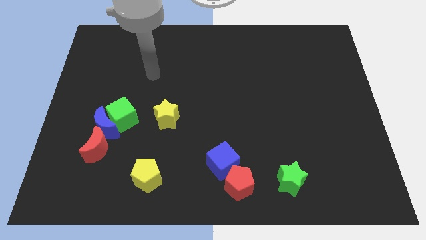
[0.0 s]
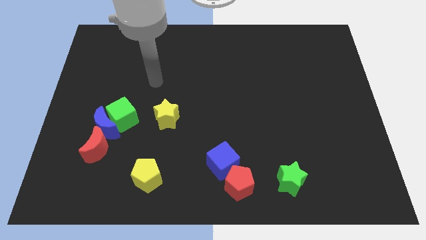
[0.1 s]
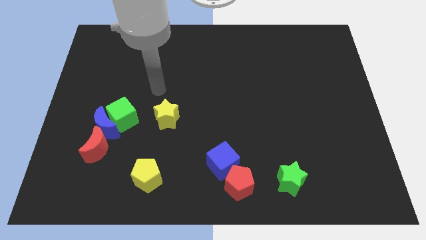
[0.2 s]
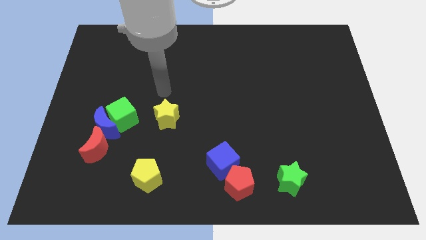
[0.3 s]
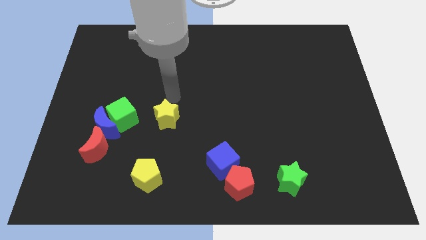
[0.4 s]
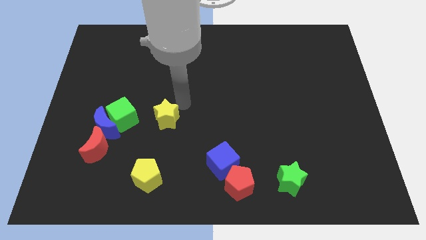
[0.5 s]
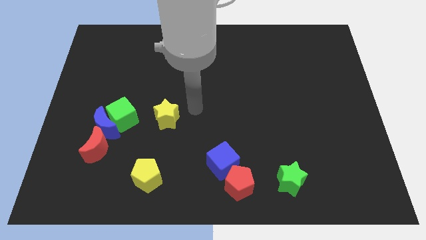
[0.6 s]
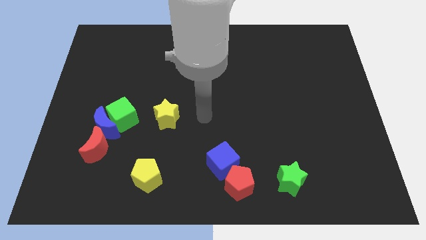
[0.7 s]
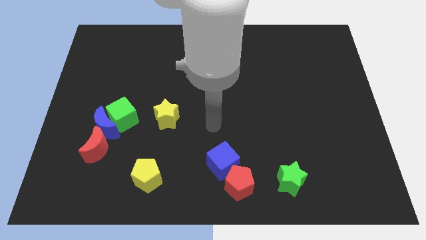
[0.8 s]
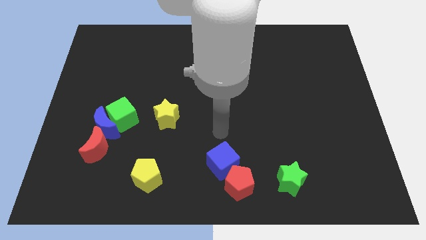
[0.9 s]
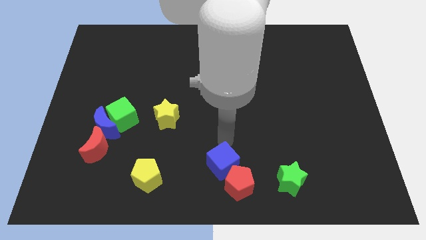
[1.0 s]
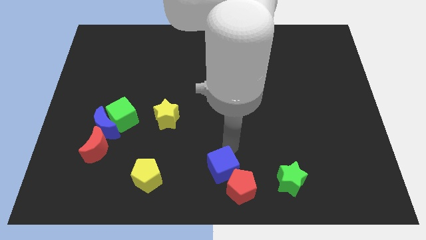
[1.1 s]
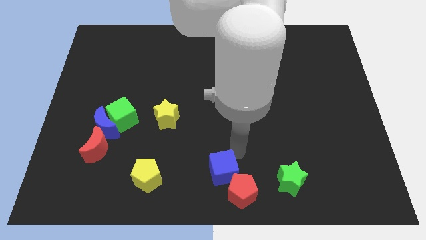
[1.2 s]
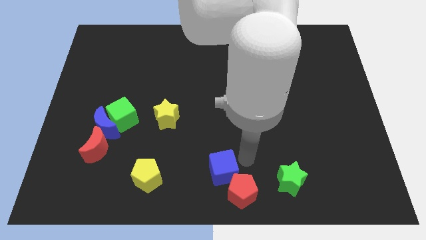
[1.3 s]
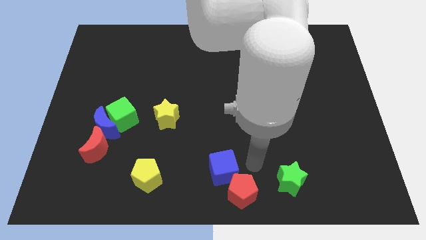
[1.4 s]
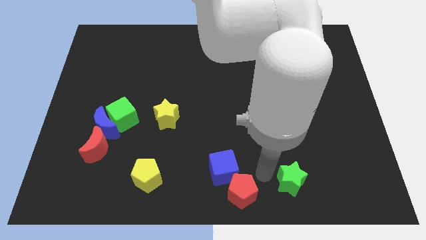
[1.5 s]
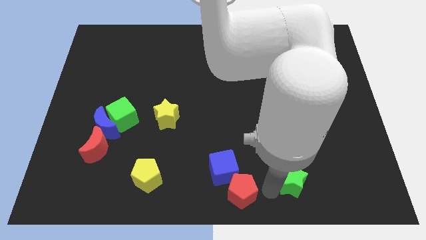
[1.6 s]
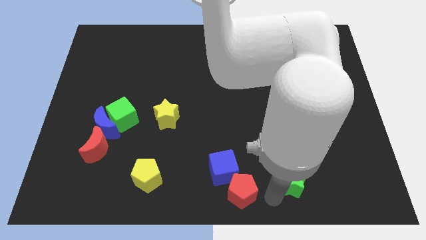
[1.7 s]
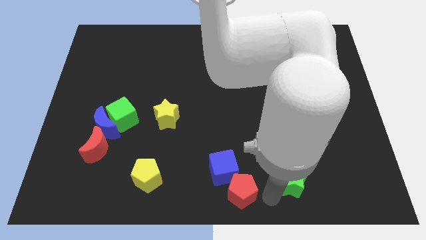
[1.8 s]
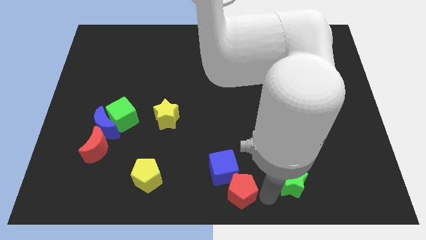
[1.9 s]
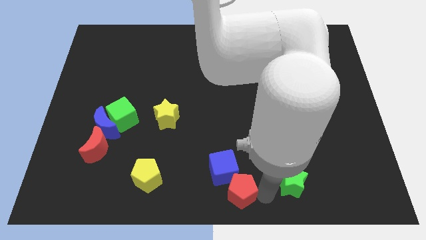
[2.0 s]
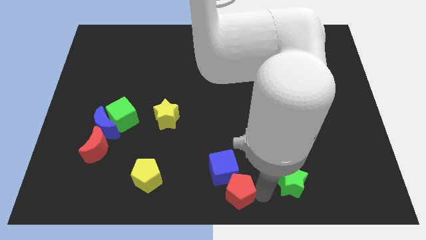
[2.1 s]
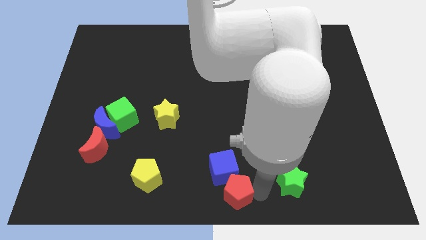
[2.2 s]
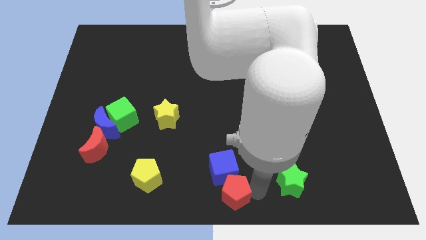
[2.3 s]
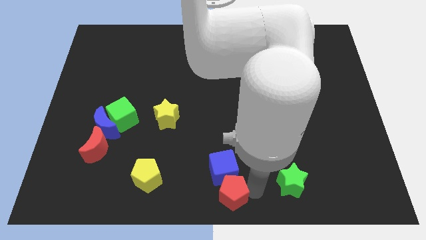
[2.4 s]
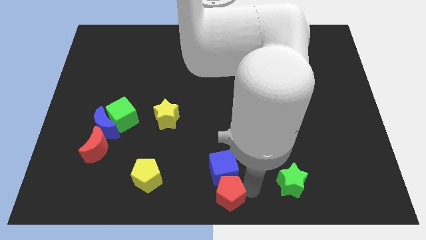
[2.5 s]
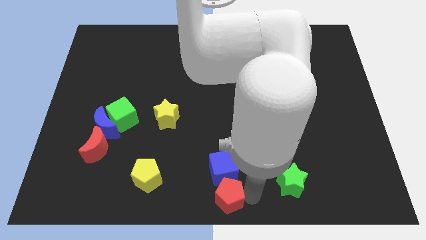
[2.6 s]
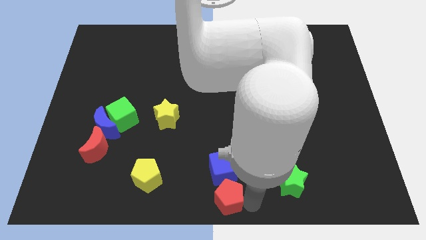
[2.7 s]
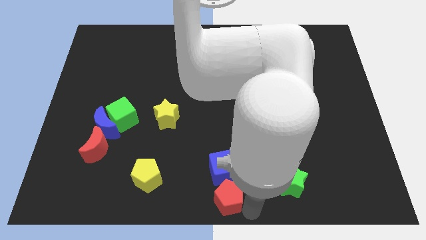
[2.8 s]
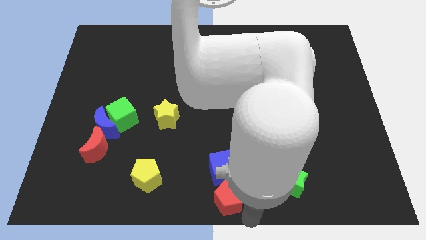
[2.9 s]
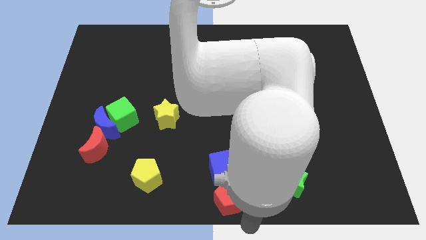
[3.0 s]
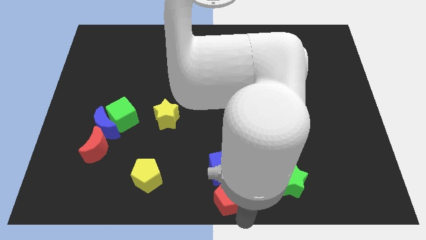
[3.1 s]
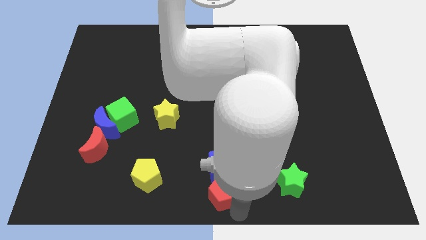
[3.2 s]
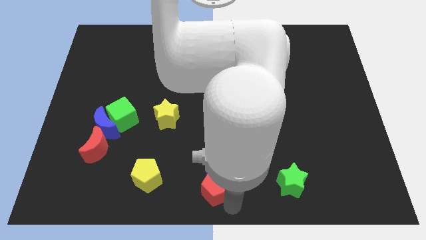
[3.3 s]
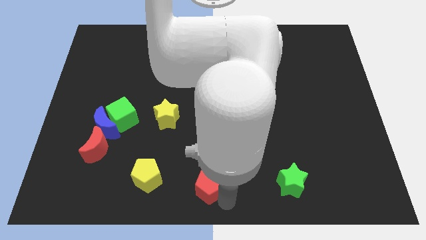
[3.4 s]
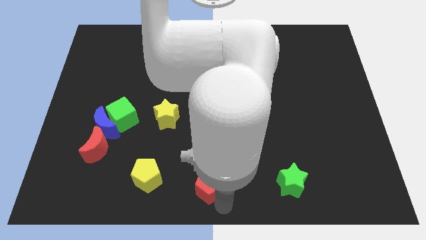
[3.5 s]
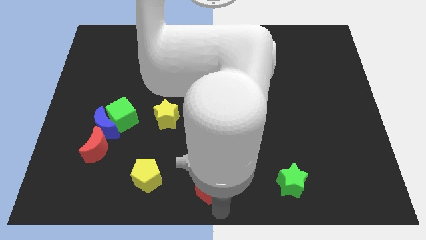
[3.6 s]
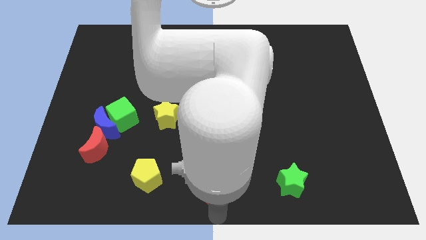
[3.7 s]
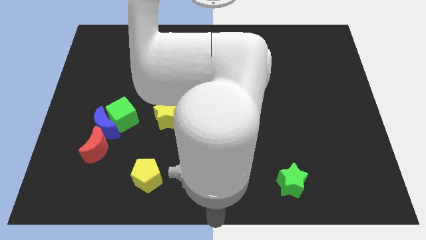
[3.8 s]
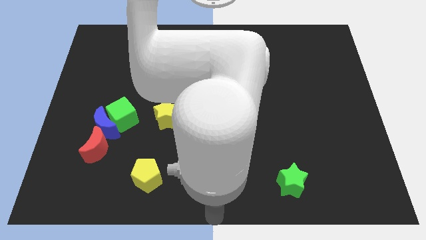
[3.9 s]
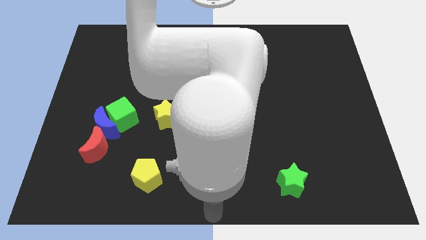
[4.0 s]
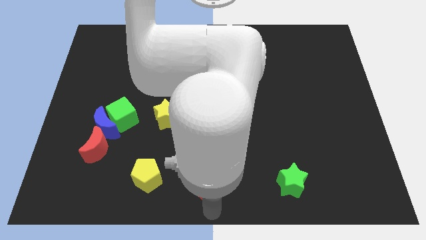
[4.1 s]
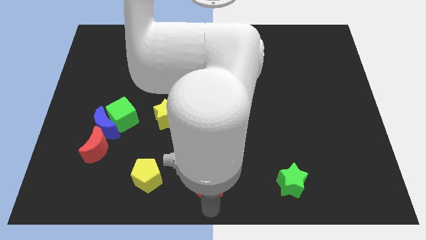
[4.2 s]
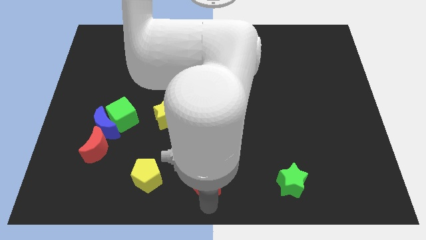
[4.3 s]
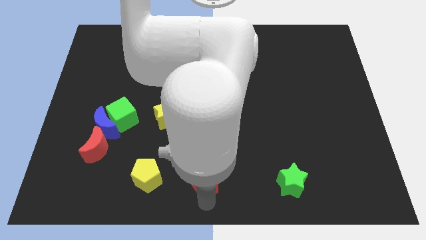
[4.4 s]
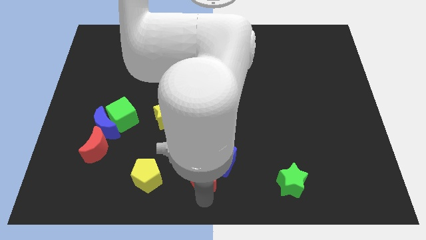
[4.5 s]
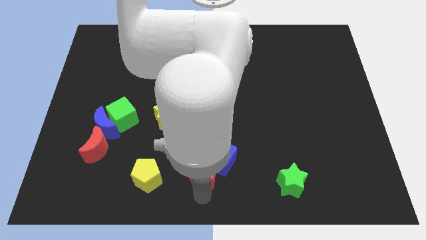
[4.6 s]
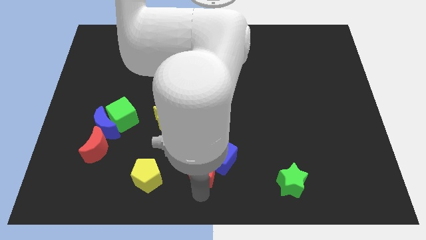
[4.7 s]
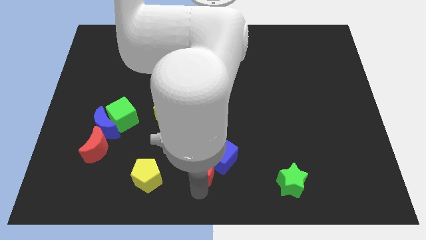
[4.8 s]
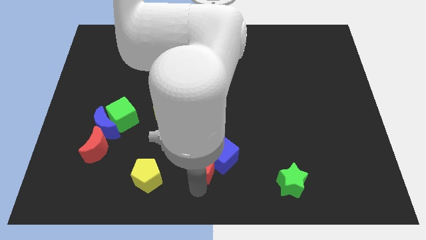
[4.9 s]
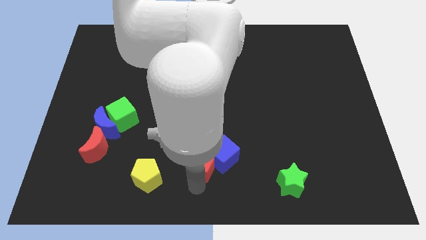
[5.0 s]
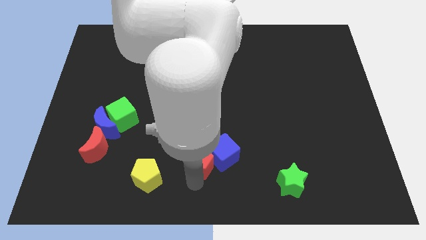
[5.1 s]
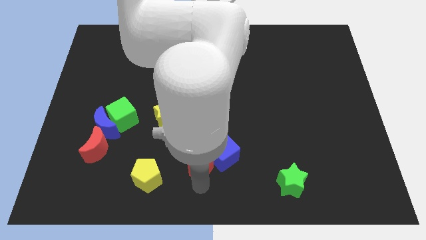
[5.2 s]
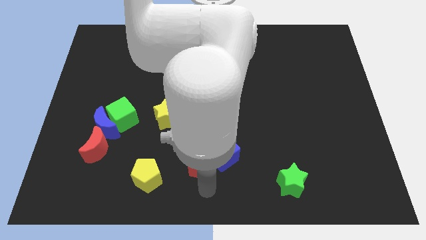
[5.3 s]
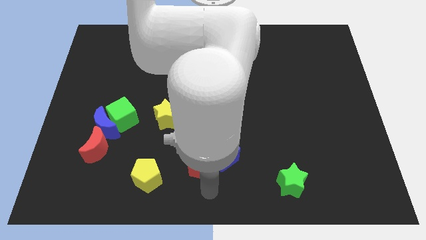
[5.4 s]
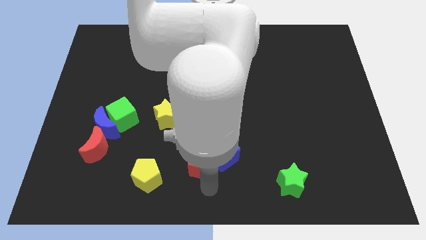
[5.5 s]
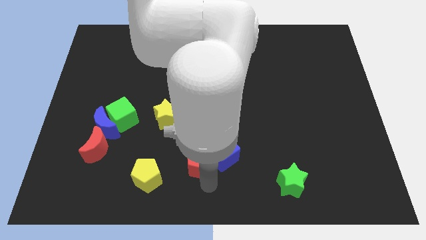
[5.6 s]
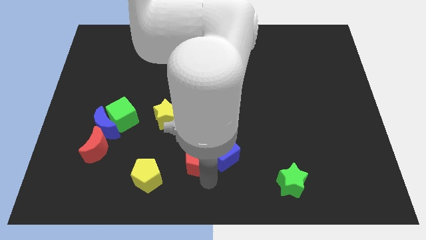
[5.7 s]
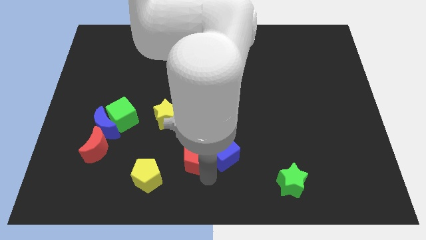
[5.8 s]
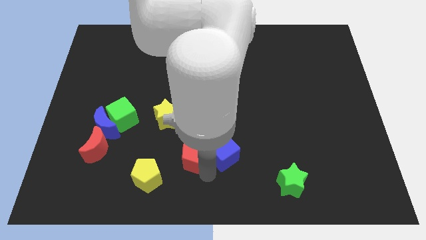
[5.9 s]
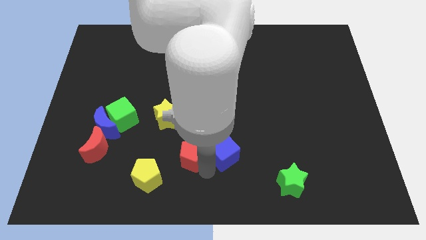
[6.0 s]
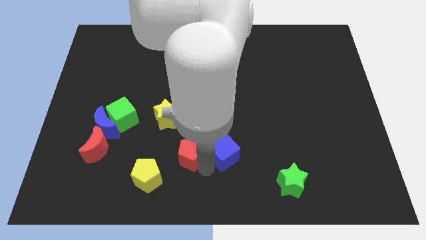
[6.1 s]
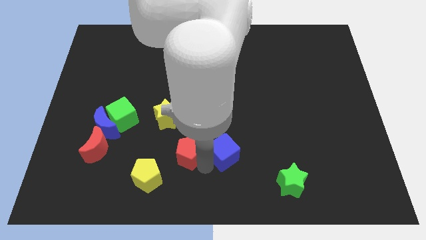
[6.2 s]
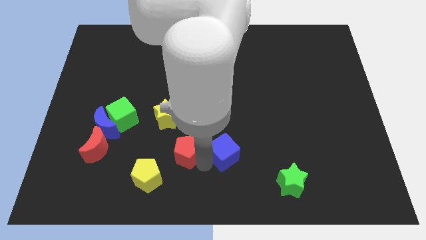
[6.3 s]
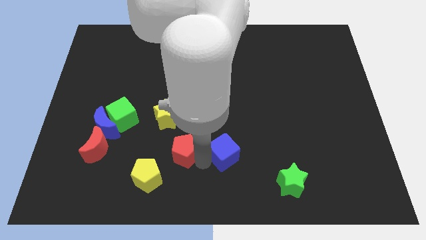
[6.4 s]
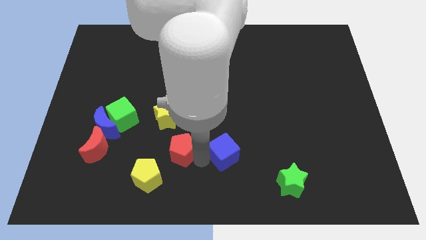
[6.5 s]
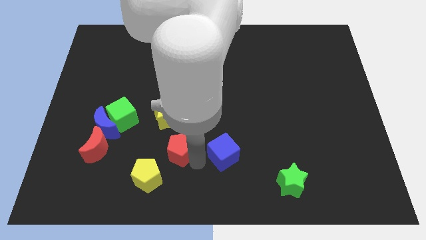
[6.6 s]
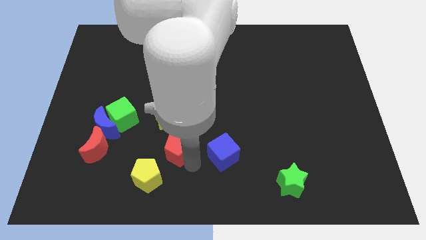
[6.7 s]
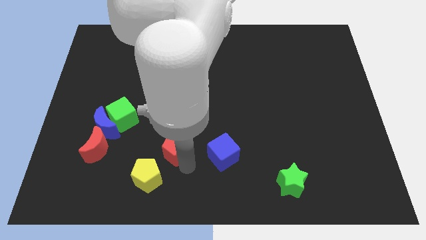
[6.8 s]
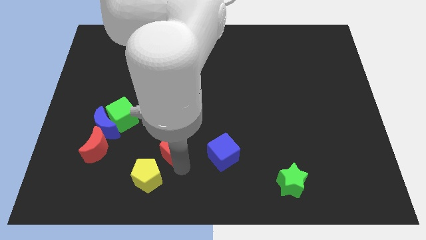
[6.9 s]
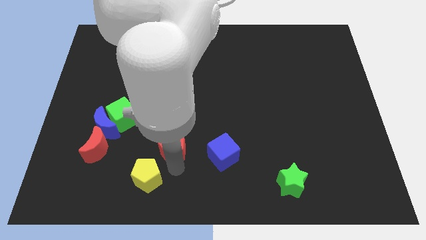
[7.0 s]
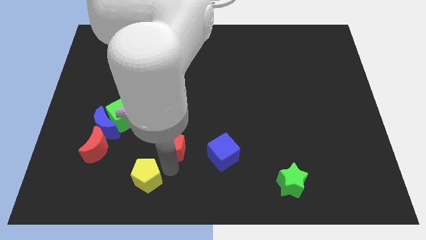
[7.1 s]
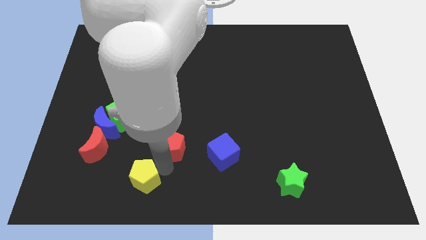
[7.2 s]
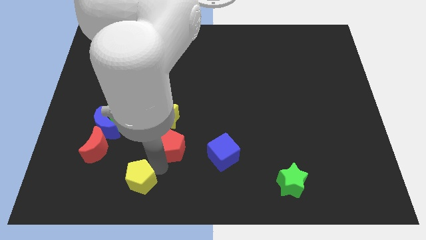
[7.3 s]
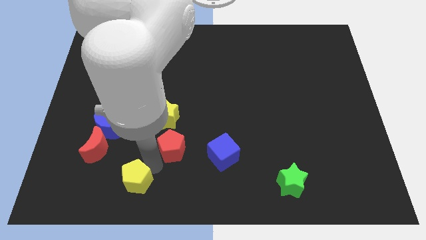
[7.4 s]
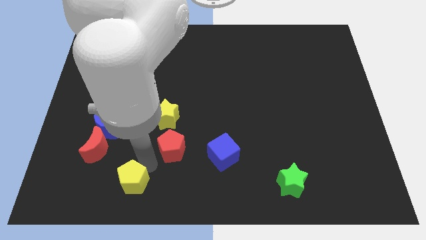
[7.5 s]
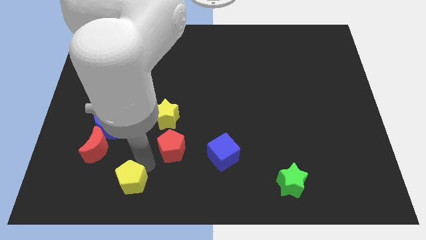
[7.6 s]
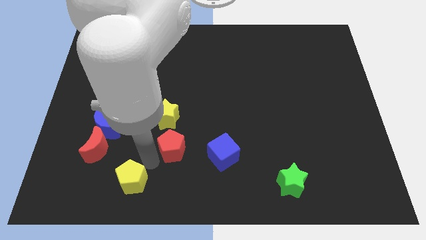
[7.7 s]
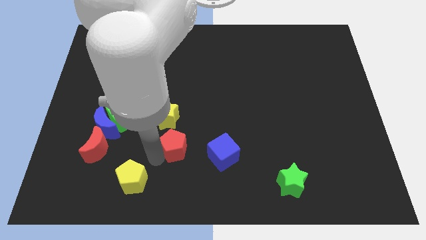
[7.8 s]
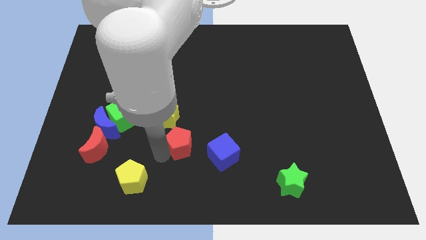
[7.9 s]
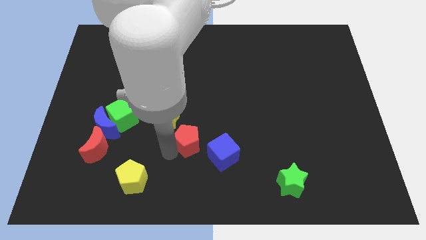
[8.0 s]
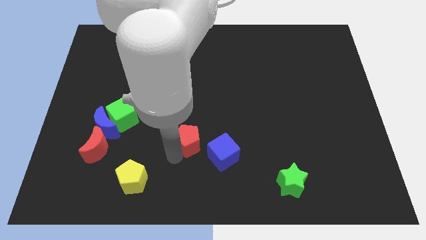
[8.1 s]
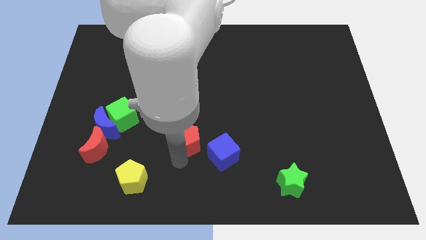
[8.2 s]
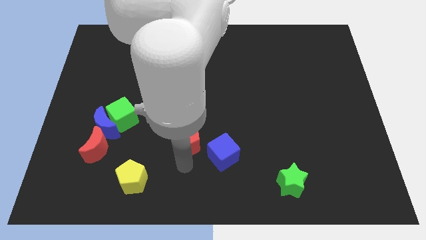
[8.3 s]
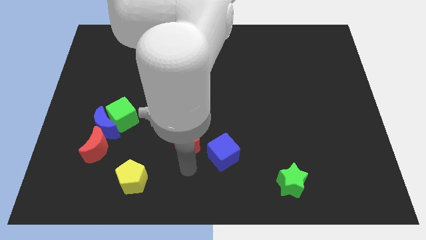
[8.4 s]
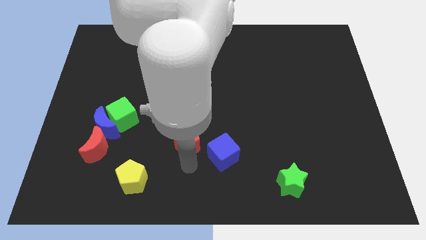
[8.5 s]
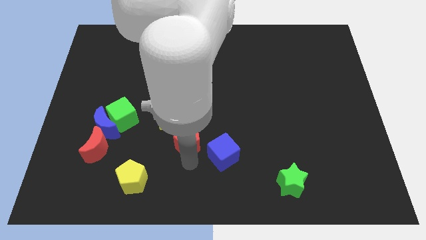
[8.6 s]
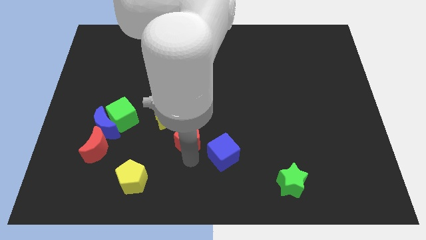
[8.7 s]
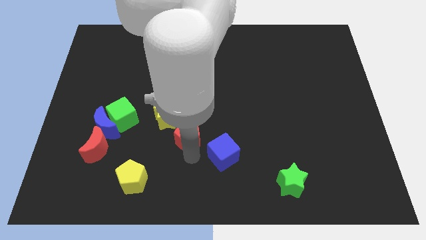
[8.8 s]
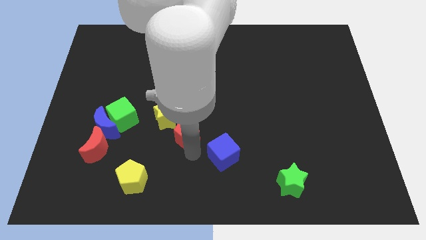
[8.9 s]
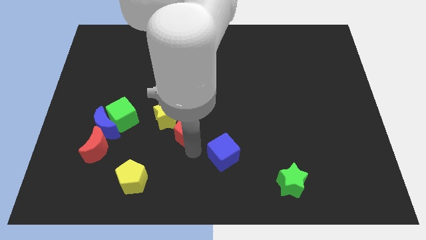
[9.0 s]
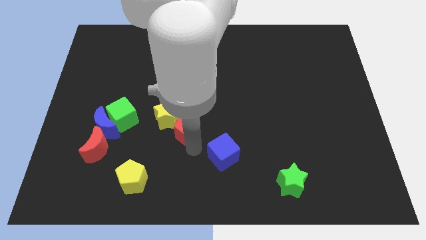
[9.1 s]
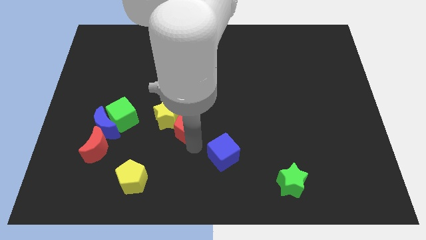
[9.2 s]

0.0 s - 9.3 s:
move the red pentagon right of the green cube
